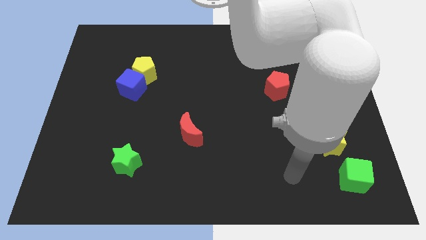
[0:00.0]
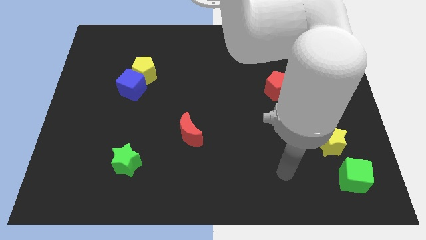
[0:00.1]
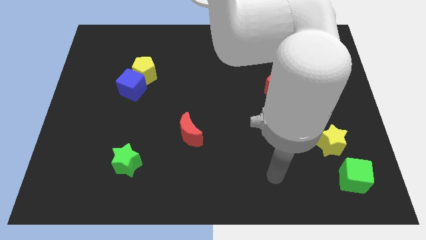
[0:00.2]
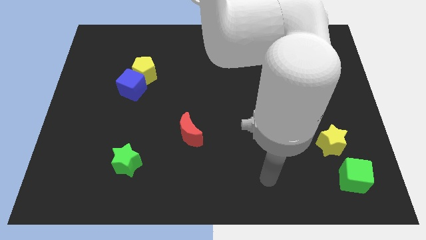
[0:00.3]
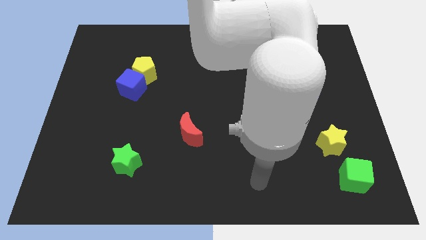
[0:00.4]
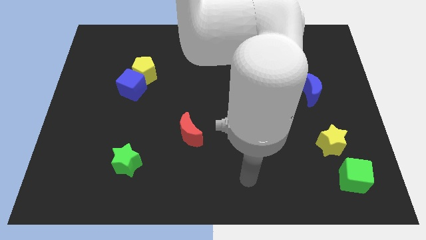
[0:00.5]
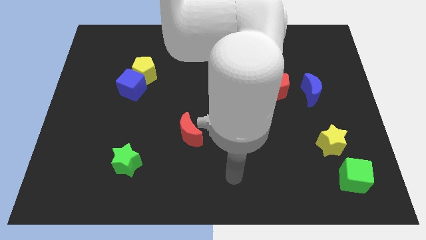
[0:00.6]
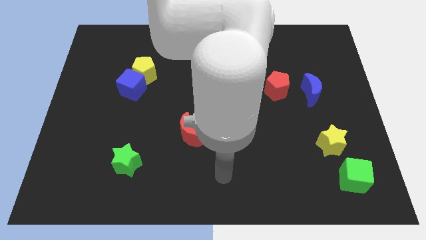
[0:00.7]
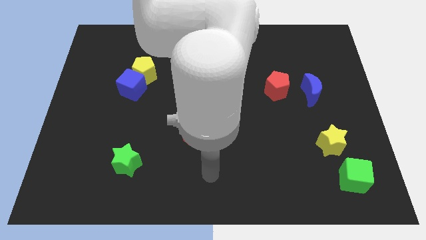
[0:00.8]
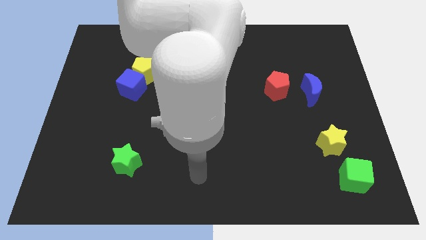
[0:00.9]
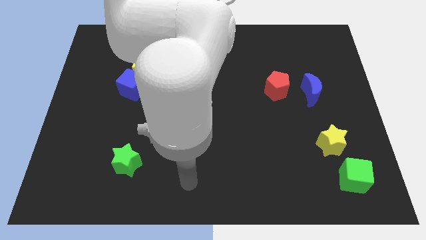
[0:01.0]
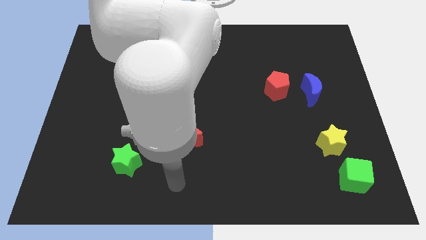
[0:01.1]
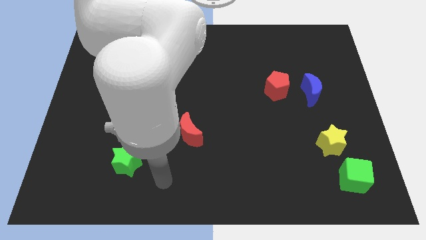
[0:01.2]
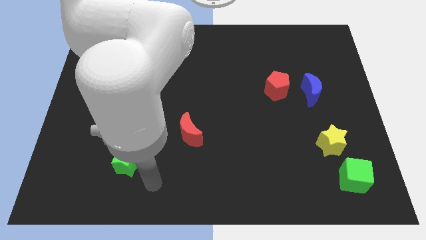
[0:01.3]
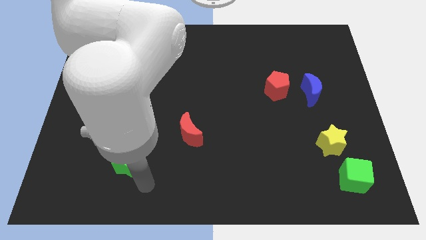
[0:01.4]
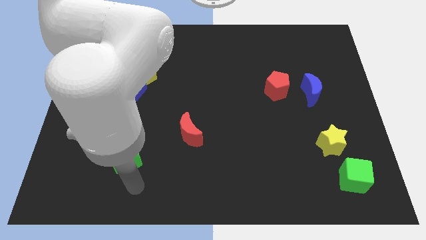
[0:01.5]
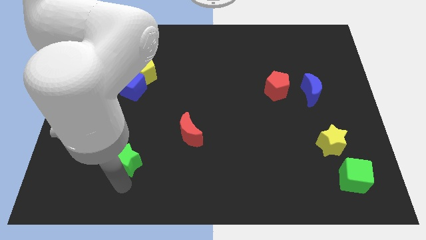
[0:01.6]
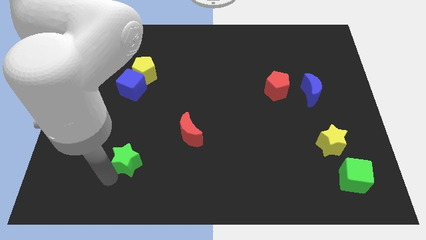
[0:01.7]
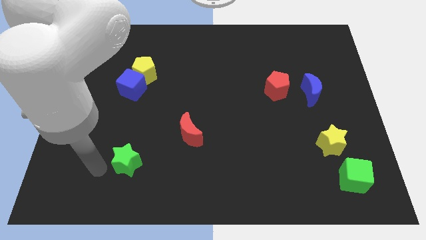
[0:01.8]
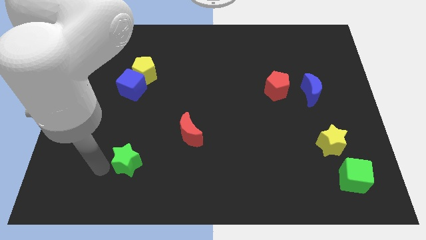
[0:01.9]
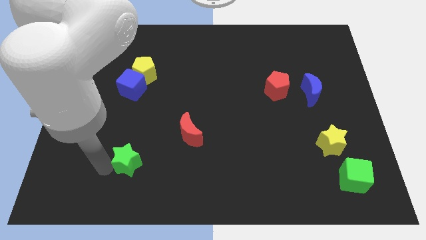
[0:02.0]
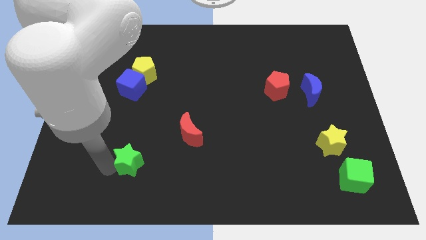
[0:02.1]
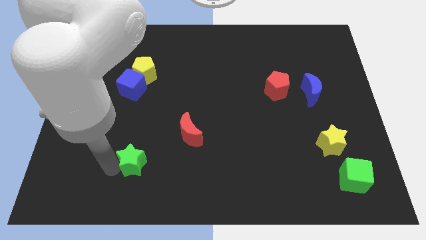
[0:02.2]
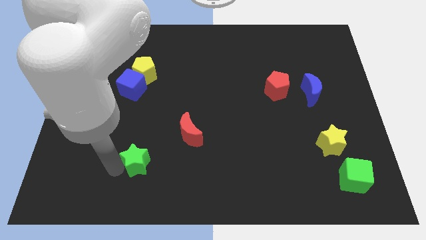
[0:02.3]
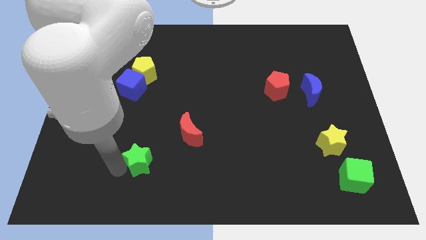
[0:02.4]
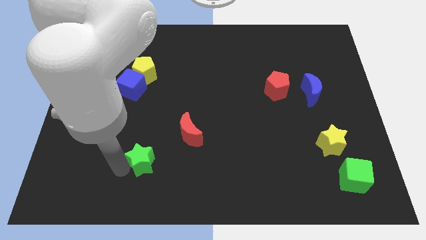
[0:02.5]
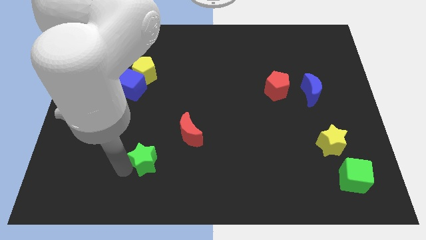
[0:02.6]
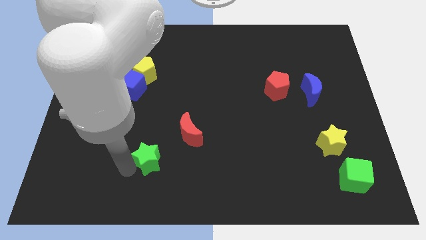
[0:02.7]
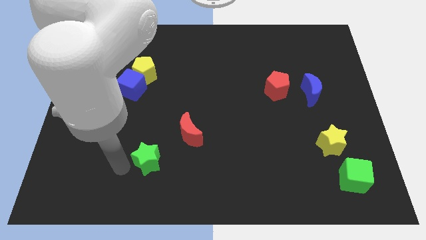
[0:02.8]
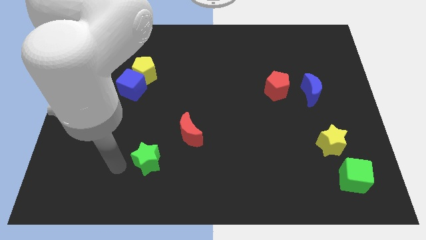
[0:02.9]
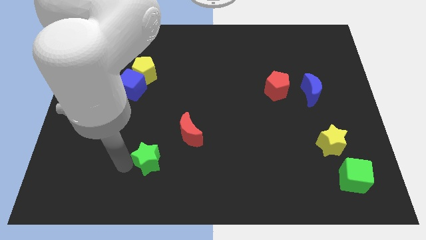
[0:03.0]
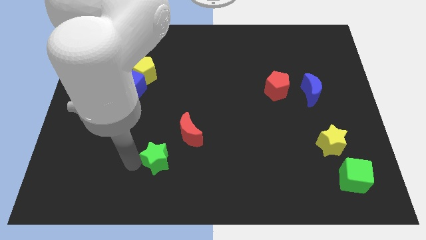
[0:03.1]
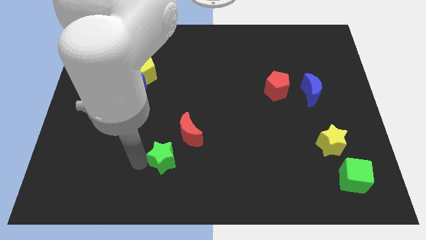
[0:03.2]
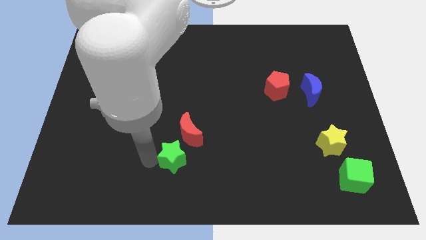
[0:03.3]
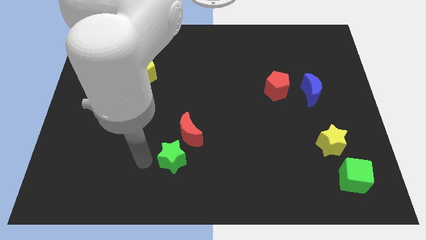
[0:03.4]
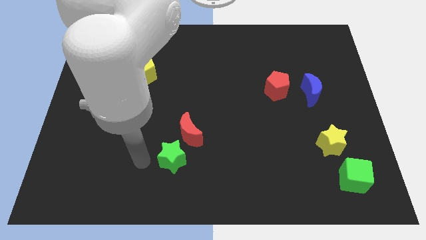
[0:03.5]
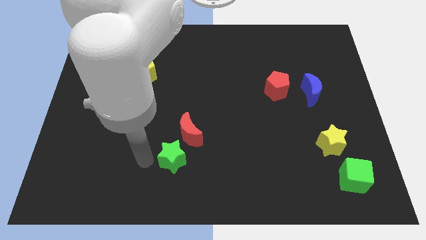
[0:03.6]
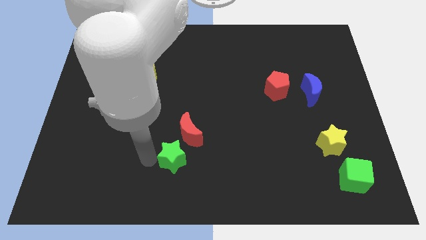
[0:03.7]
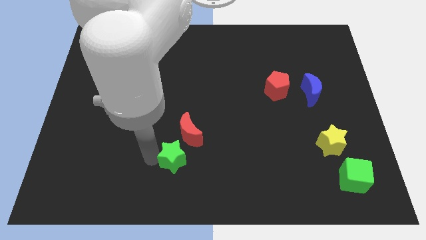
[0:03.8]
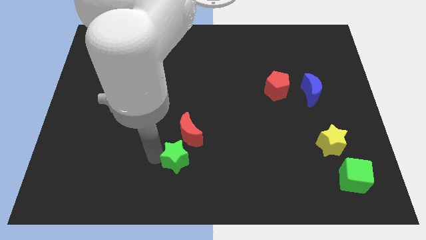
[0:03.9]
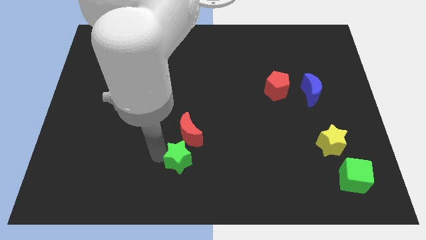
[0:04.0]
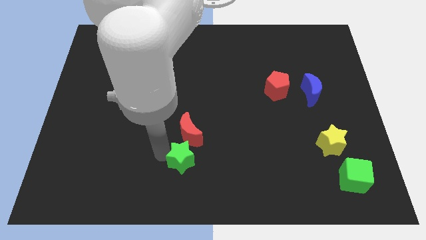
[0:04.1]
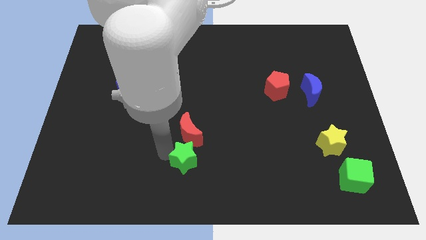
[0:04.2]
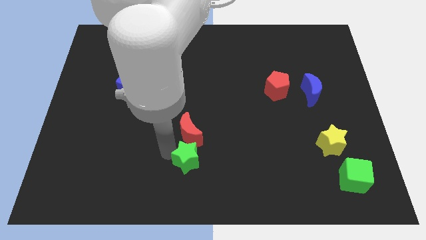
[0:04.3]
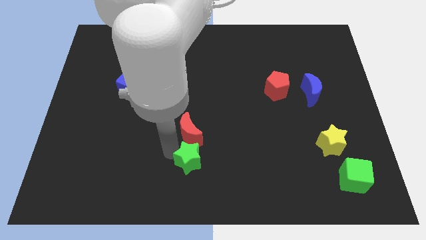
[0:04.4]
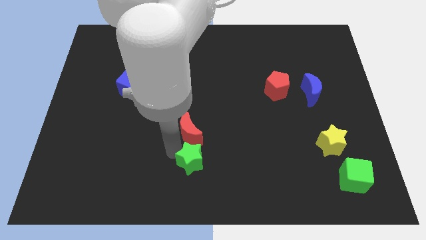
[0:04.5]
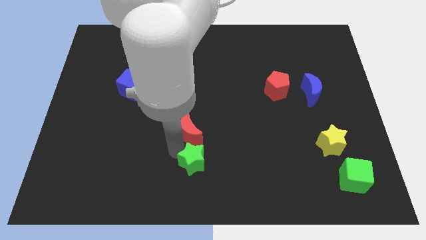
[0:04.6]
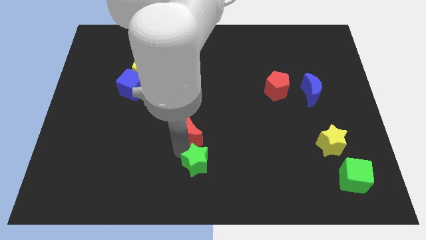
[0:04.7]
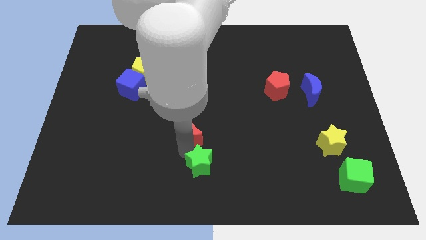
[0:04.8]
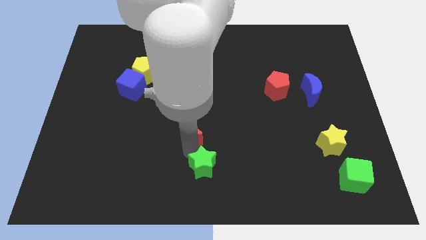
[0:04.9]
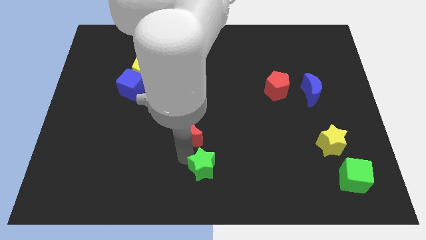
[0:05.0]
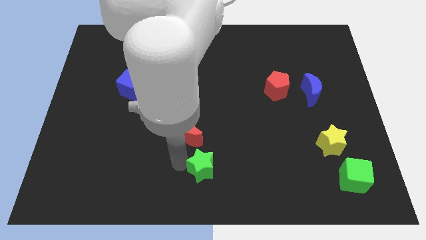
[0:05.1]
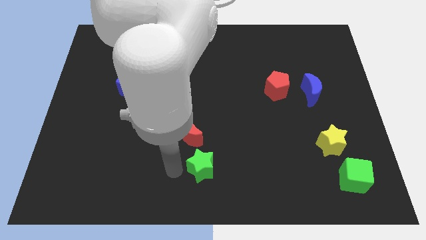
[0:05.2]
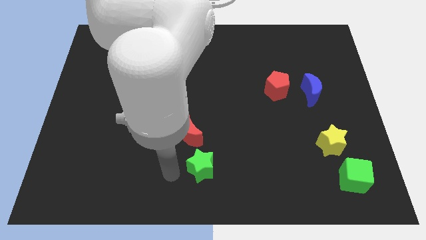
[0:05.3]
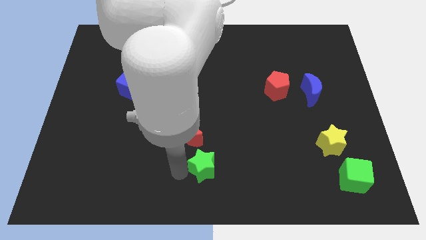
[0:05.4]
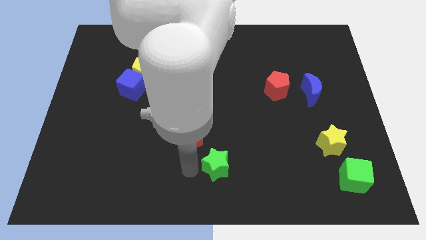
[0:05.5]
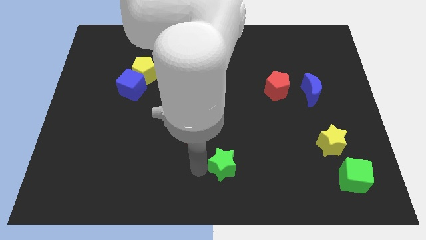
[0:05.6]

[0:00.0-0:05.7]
push the green star to the right

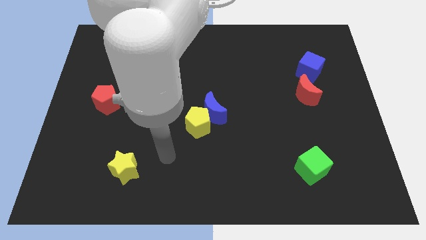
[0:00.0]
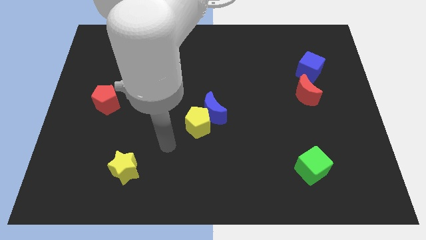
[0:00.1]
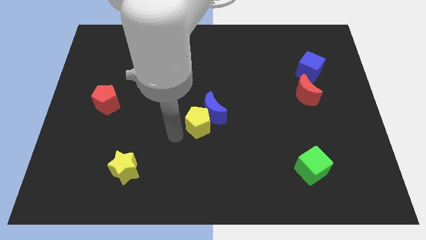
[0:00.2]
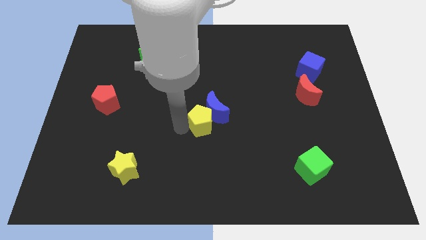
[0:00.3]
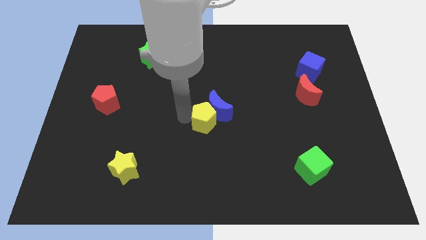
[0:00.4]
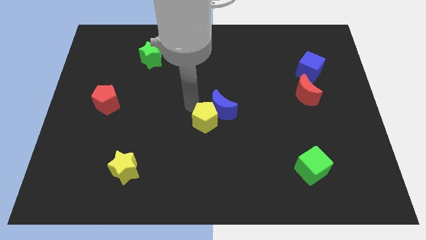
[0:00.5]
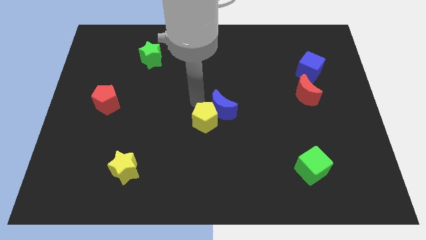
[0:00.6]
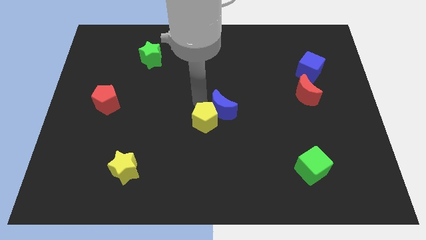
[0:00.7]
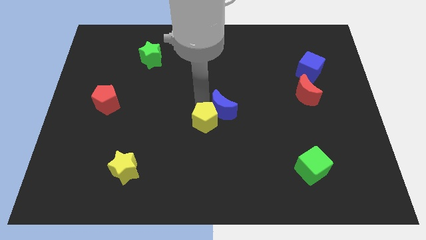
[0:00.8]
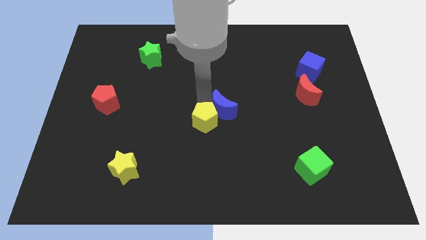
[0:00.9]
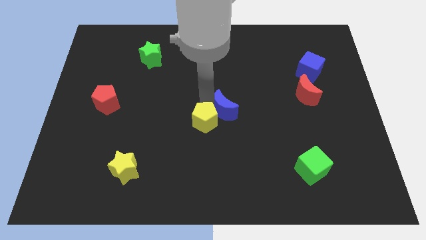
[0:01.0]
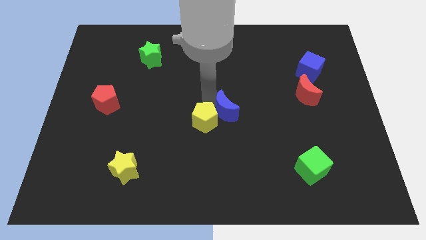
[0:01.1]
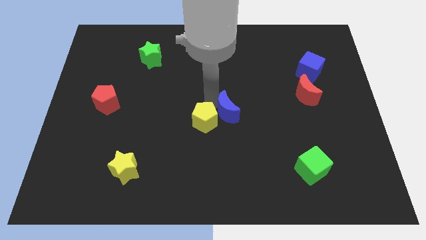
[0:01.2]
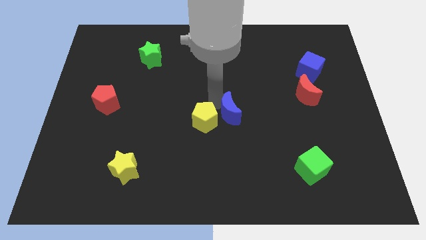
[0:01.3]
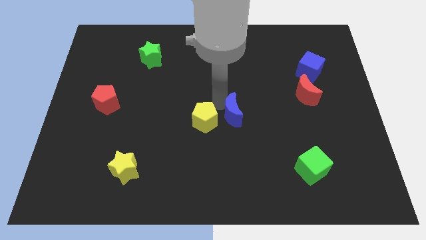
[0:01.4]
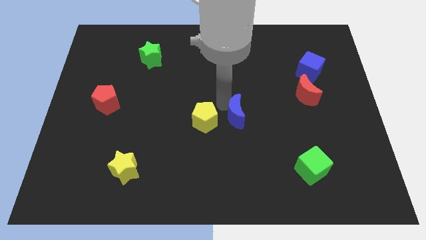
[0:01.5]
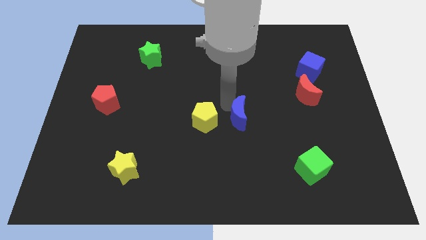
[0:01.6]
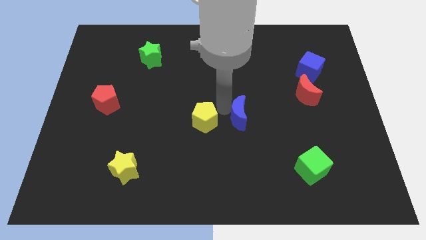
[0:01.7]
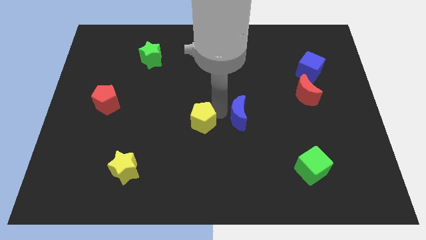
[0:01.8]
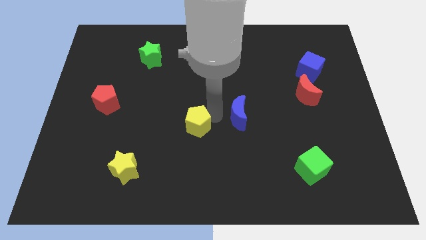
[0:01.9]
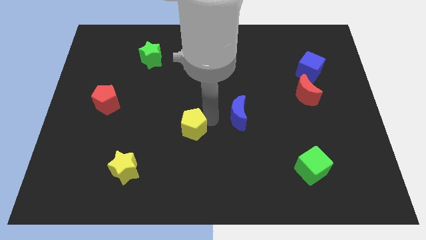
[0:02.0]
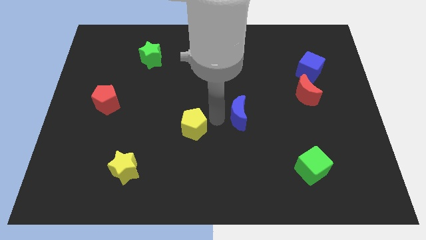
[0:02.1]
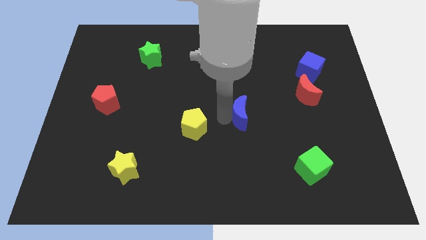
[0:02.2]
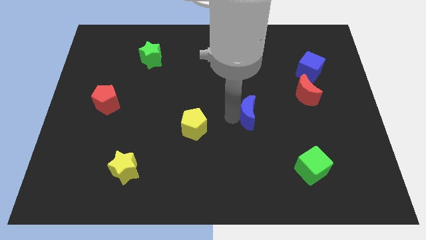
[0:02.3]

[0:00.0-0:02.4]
slightly slide the blue moon right
